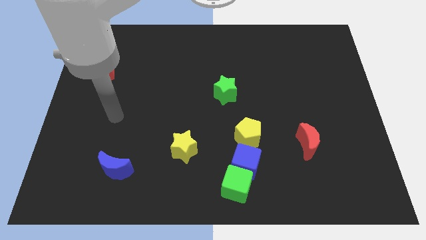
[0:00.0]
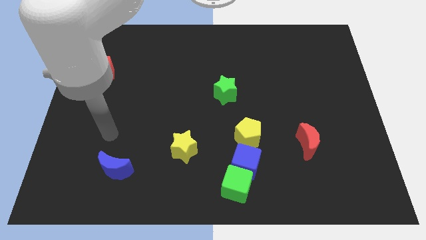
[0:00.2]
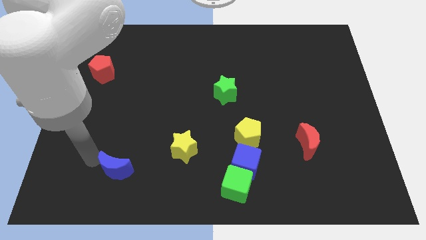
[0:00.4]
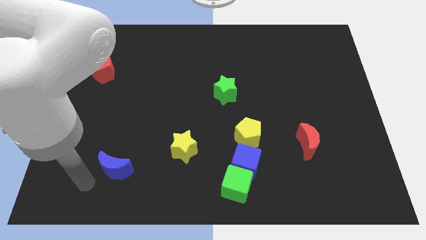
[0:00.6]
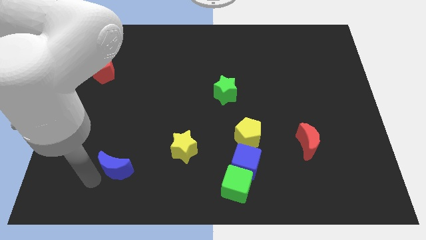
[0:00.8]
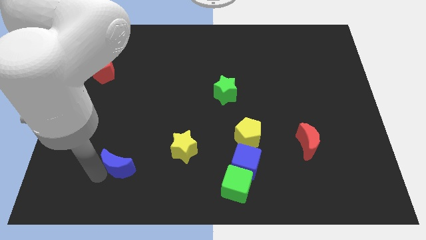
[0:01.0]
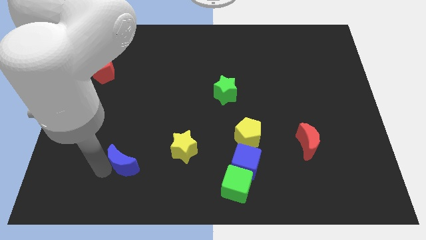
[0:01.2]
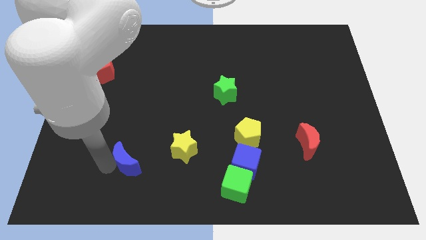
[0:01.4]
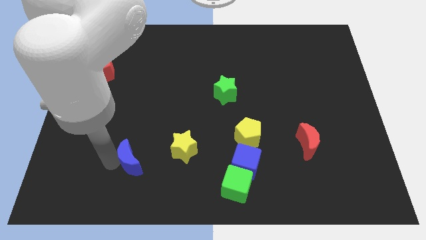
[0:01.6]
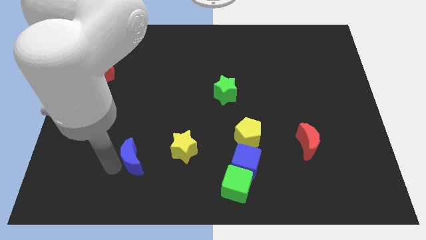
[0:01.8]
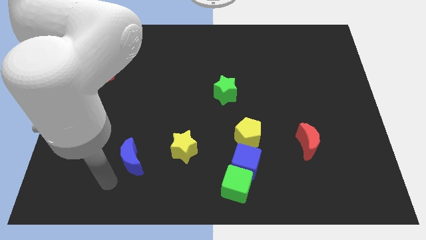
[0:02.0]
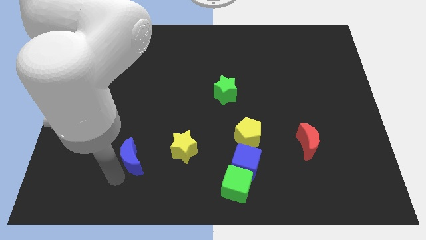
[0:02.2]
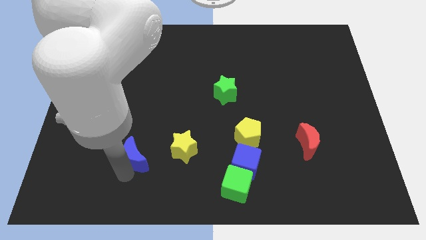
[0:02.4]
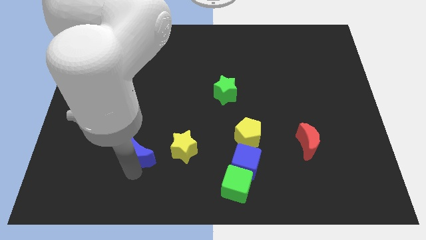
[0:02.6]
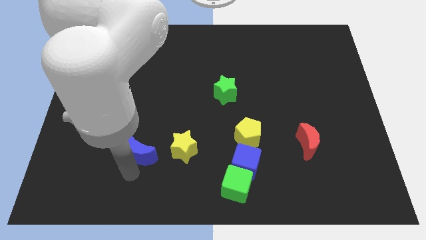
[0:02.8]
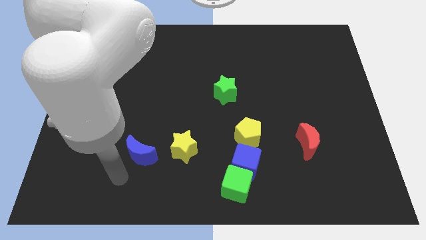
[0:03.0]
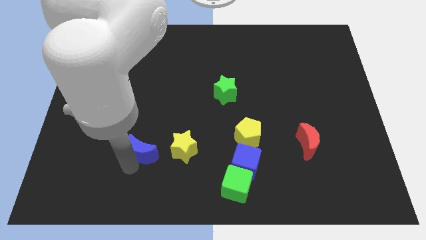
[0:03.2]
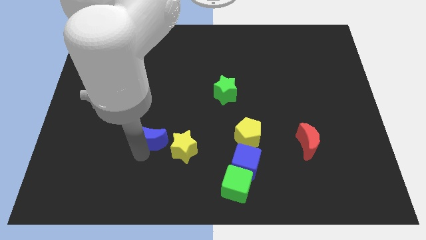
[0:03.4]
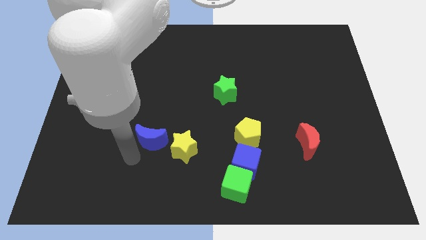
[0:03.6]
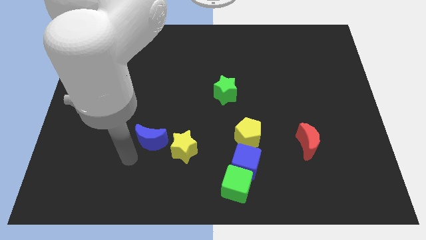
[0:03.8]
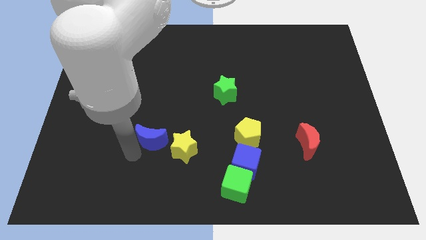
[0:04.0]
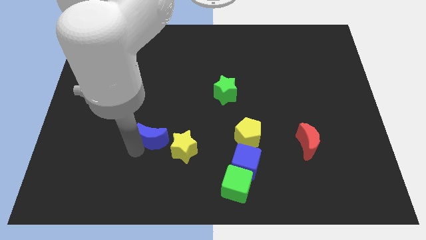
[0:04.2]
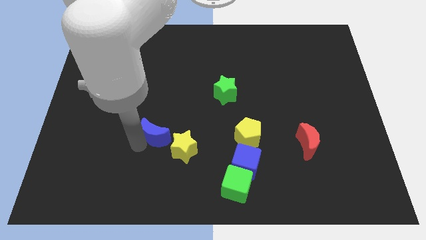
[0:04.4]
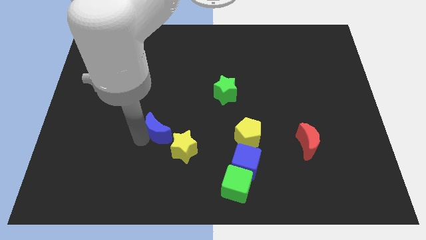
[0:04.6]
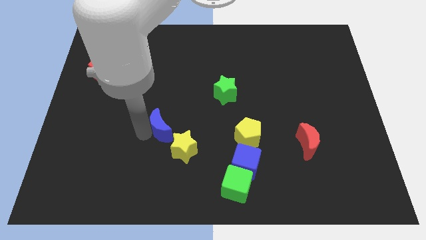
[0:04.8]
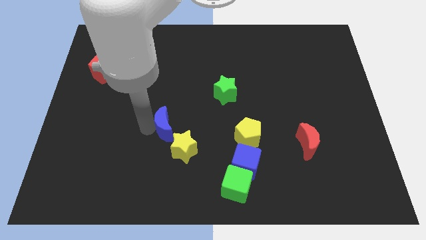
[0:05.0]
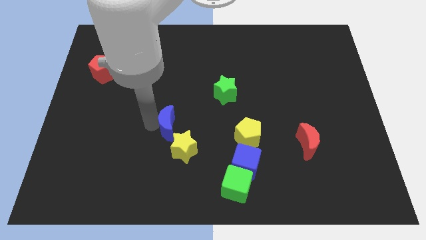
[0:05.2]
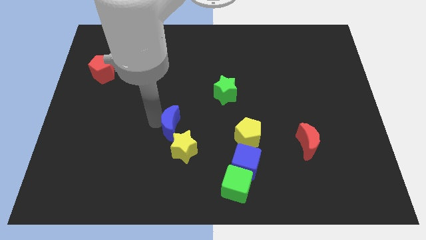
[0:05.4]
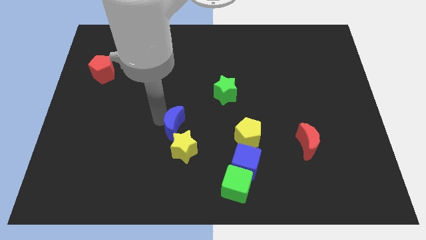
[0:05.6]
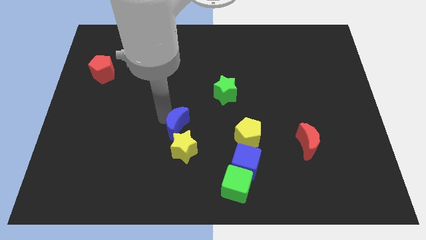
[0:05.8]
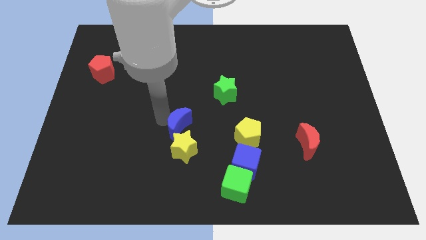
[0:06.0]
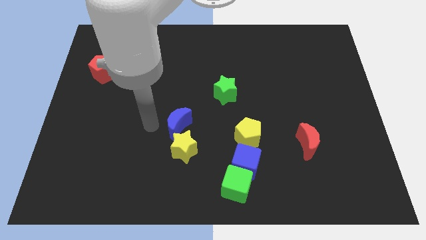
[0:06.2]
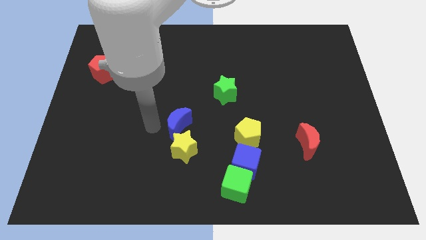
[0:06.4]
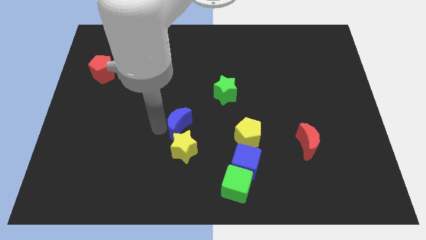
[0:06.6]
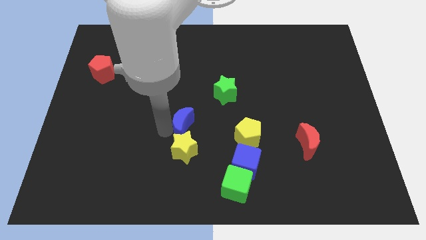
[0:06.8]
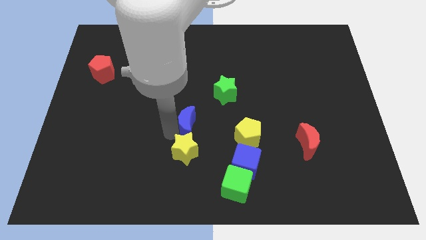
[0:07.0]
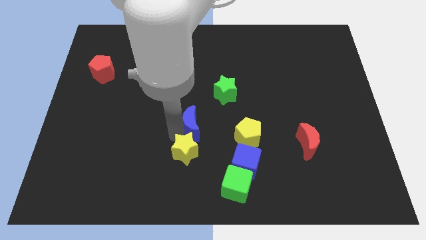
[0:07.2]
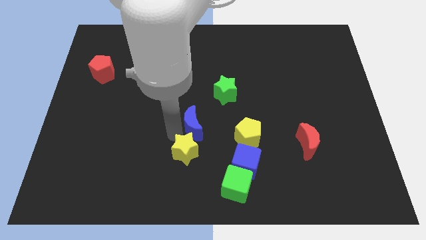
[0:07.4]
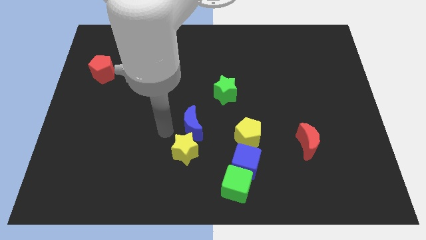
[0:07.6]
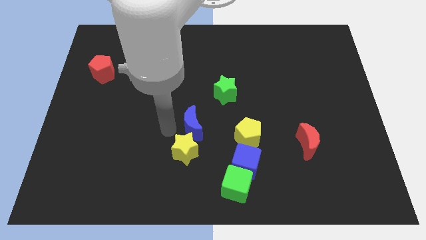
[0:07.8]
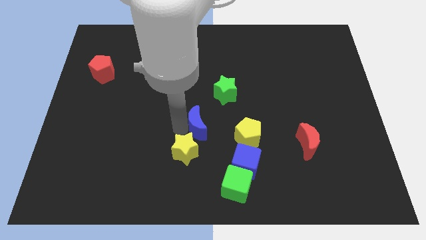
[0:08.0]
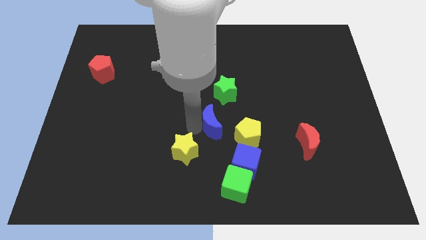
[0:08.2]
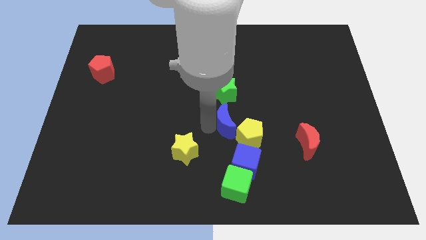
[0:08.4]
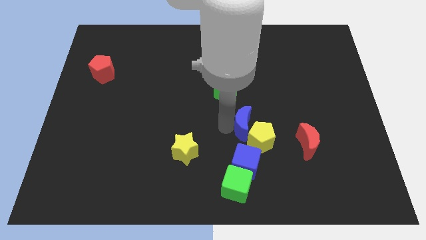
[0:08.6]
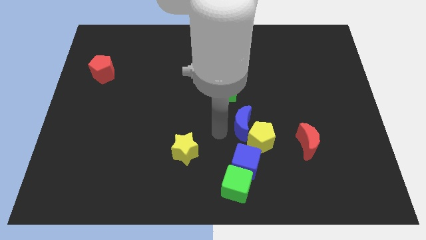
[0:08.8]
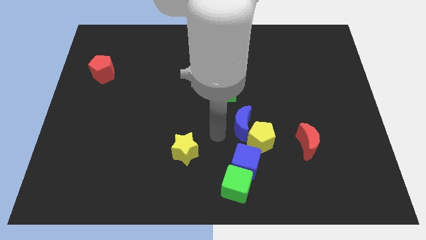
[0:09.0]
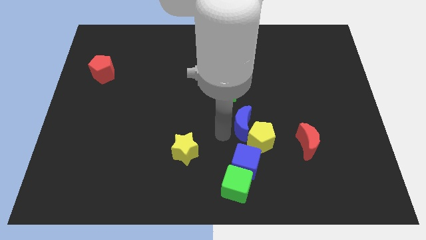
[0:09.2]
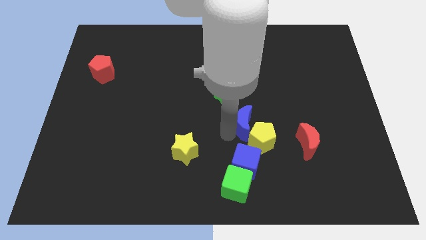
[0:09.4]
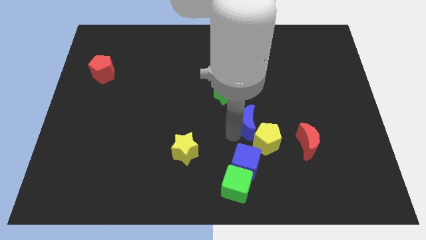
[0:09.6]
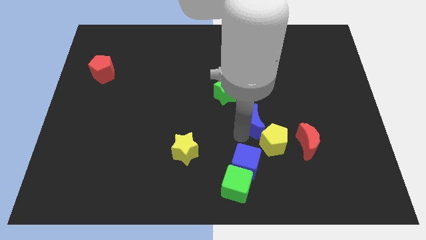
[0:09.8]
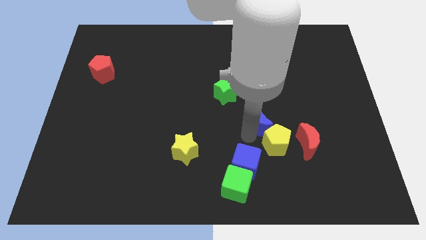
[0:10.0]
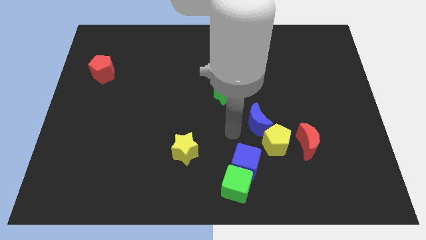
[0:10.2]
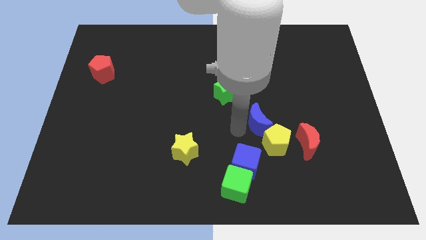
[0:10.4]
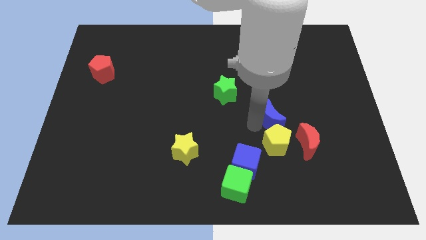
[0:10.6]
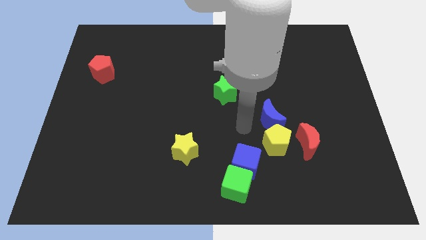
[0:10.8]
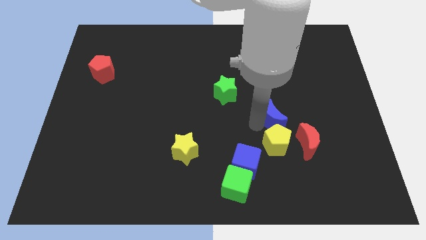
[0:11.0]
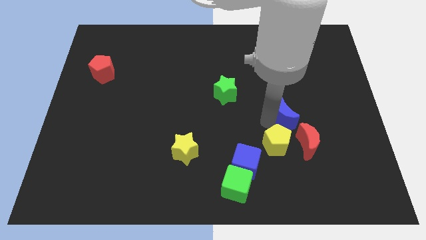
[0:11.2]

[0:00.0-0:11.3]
slide the blue moon to the top of the red moon
